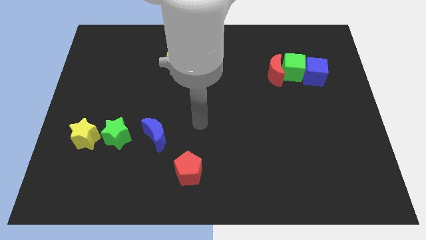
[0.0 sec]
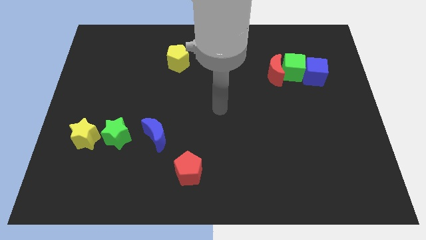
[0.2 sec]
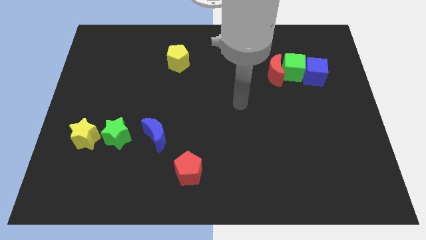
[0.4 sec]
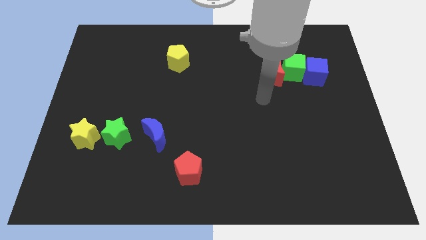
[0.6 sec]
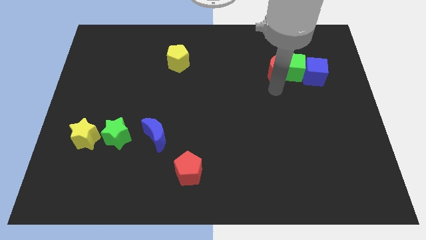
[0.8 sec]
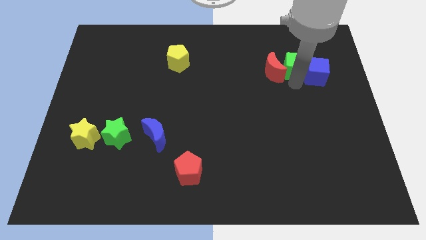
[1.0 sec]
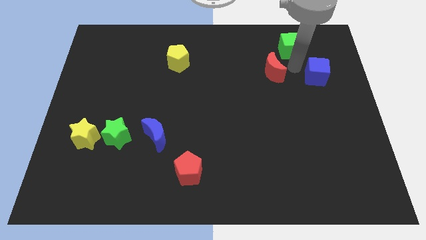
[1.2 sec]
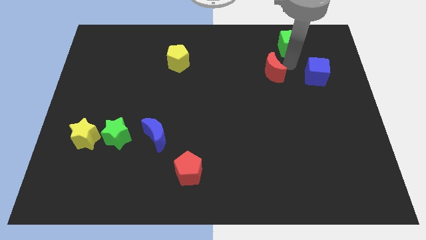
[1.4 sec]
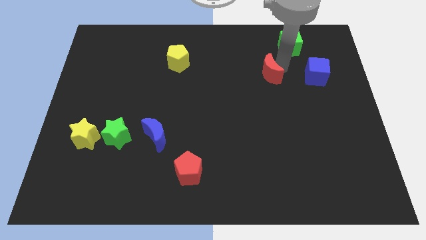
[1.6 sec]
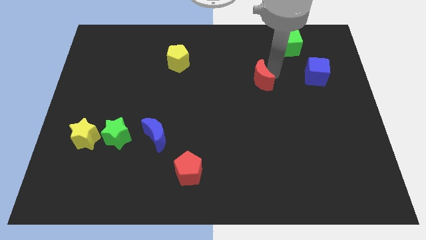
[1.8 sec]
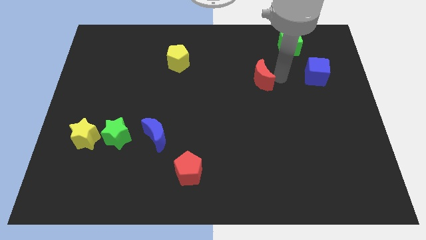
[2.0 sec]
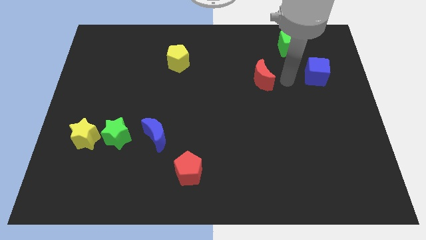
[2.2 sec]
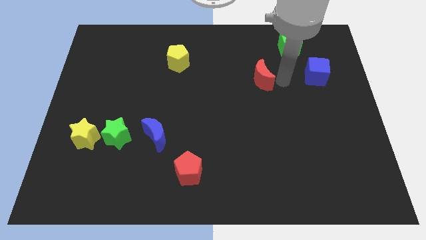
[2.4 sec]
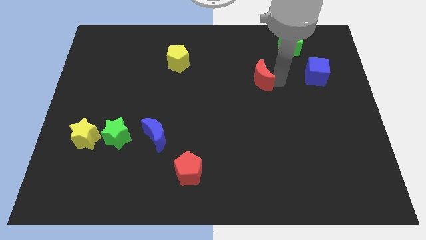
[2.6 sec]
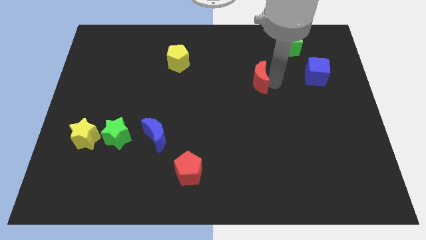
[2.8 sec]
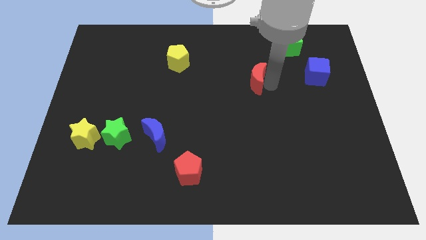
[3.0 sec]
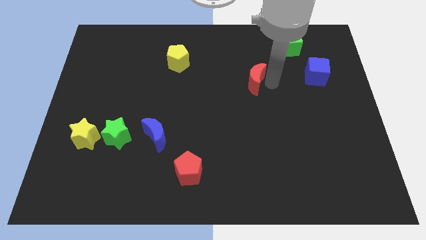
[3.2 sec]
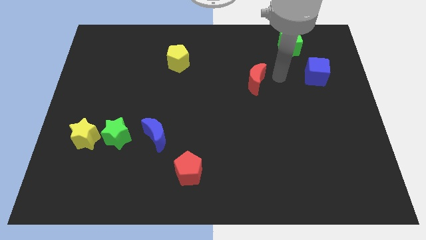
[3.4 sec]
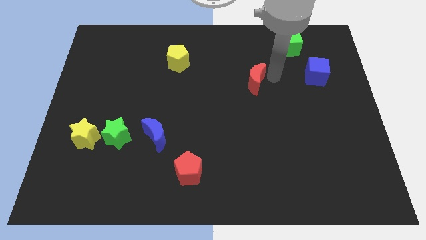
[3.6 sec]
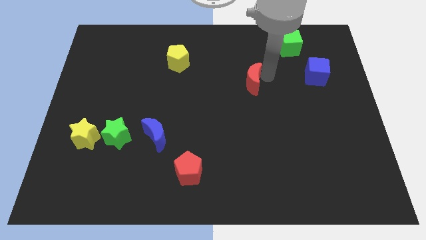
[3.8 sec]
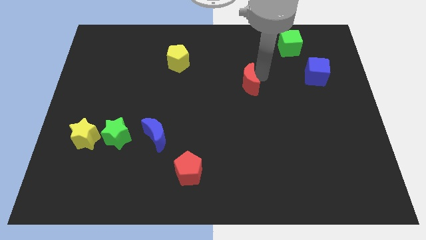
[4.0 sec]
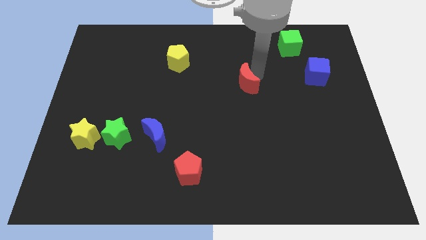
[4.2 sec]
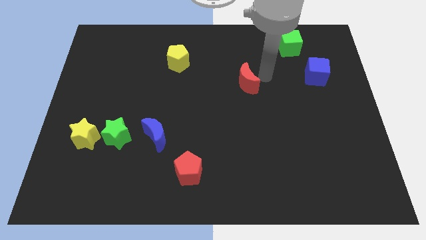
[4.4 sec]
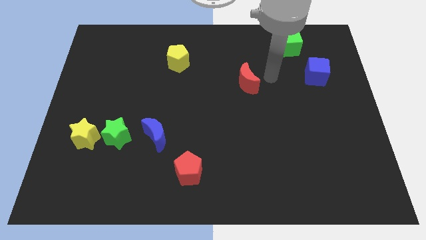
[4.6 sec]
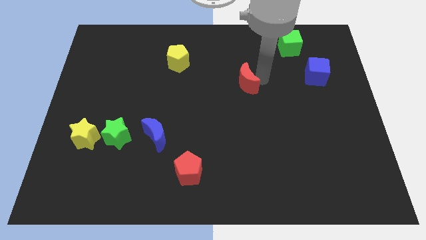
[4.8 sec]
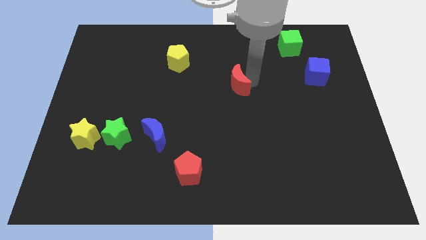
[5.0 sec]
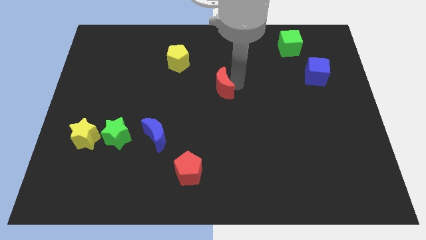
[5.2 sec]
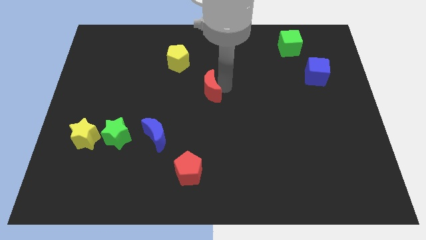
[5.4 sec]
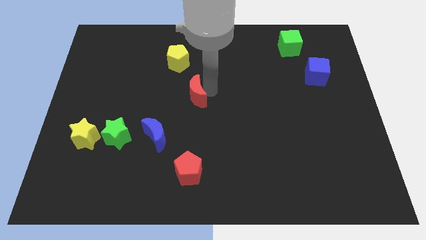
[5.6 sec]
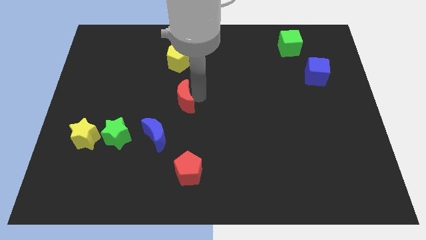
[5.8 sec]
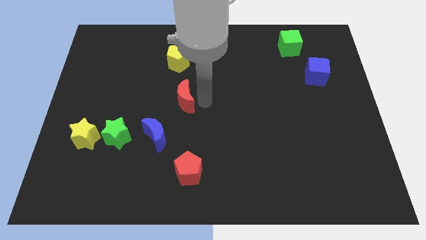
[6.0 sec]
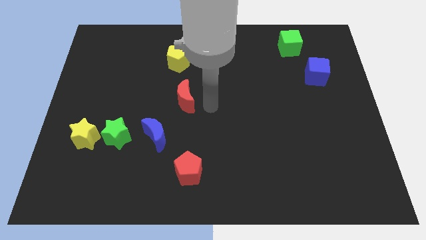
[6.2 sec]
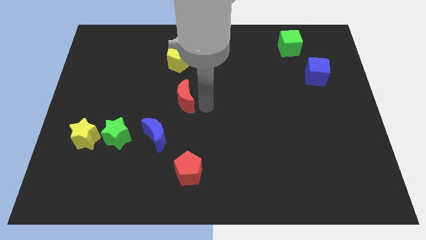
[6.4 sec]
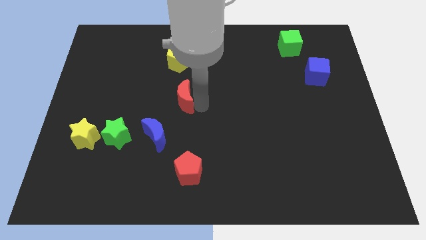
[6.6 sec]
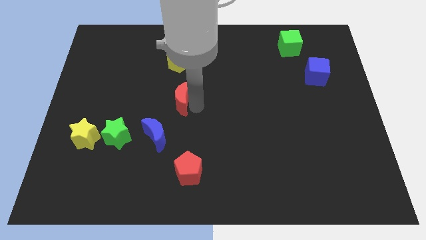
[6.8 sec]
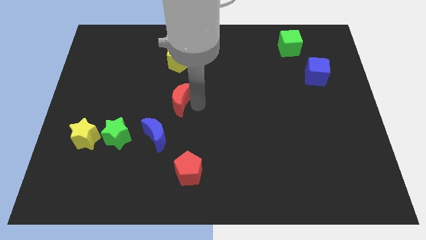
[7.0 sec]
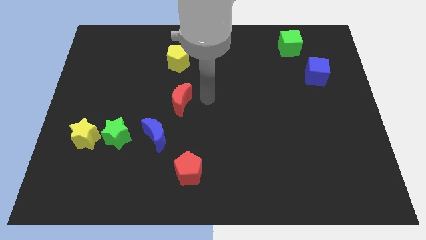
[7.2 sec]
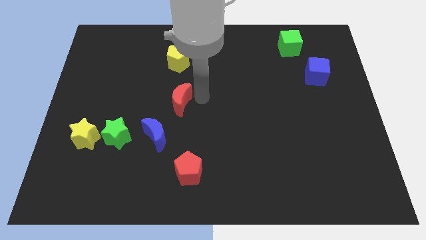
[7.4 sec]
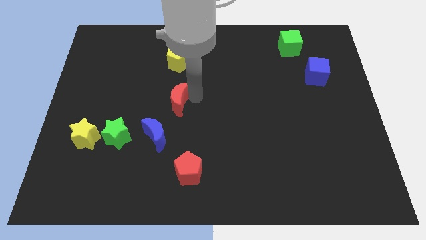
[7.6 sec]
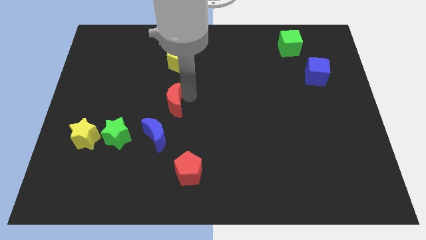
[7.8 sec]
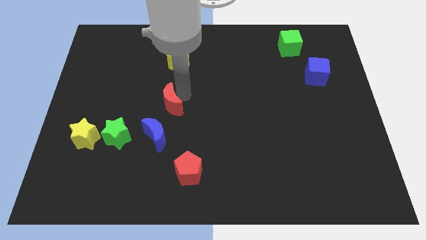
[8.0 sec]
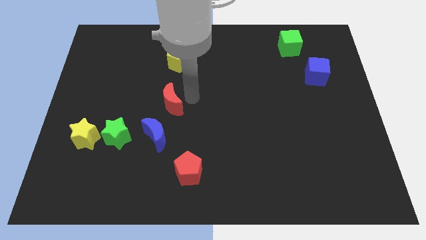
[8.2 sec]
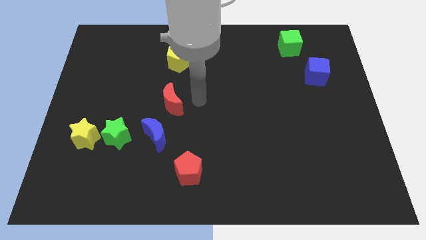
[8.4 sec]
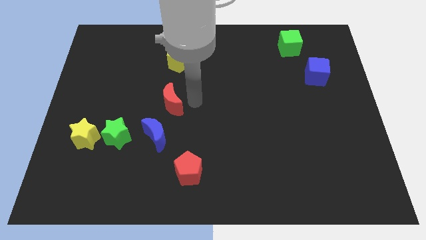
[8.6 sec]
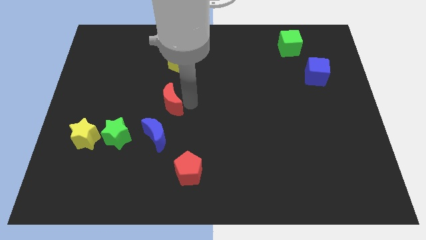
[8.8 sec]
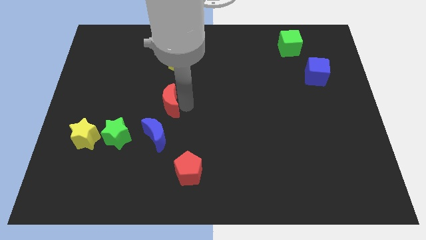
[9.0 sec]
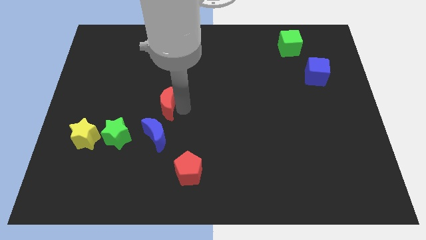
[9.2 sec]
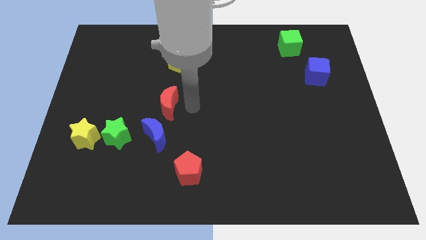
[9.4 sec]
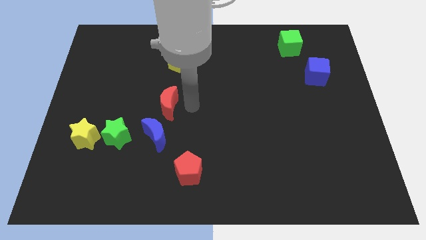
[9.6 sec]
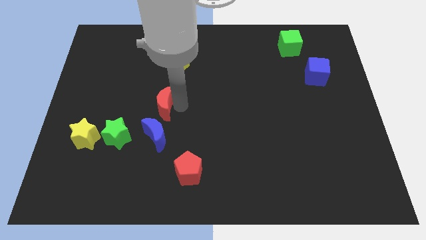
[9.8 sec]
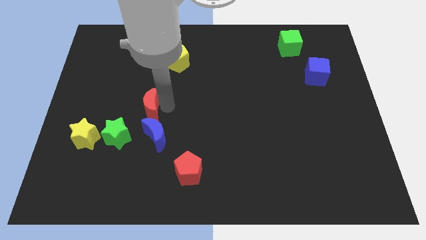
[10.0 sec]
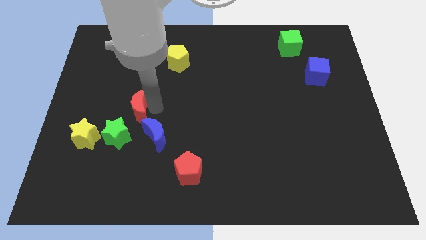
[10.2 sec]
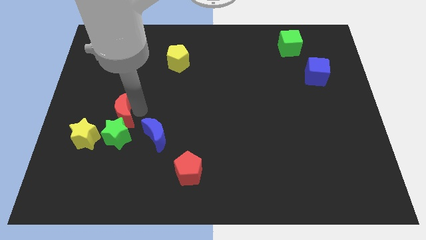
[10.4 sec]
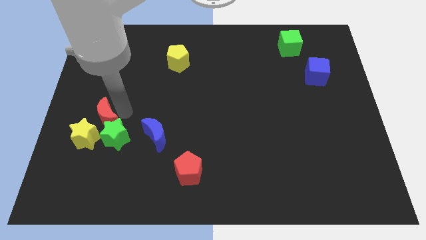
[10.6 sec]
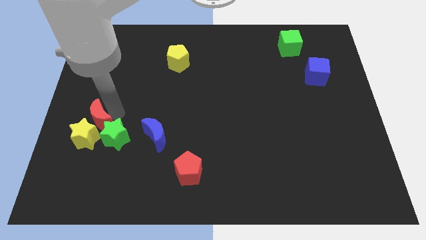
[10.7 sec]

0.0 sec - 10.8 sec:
move the red moon close to the yellow star

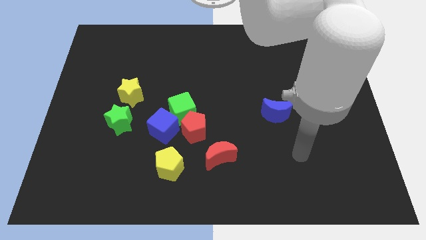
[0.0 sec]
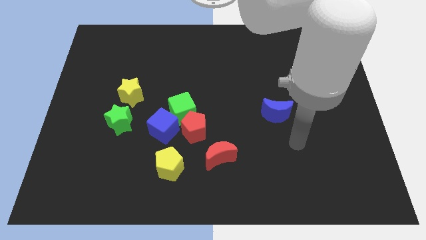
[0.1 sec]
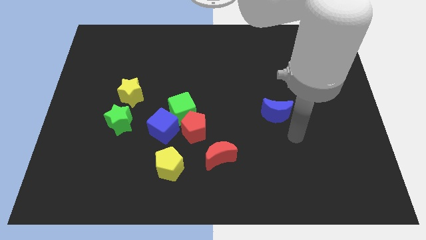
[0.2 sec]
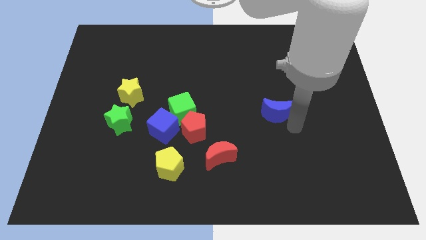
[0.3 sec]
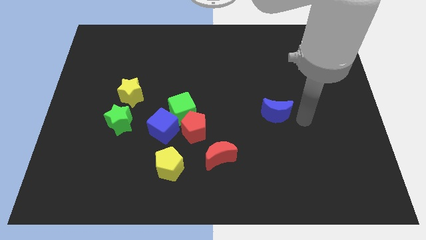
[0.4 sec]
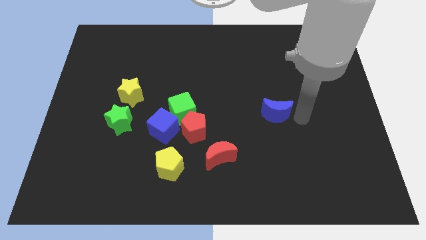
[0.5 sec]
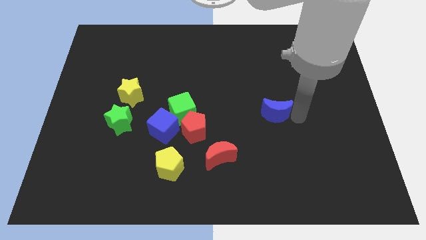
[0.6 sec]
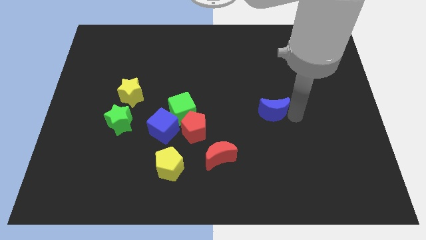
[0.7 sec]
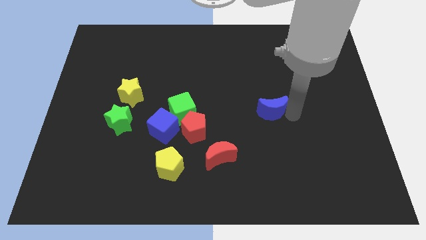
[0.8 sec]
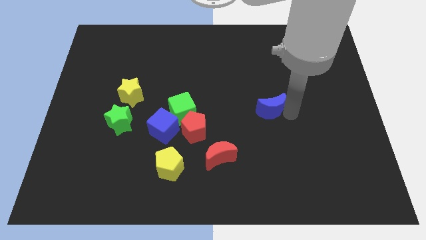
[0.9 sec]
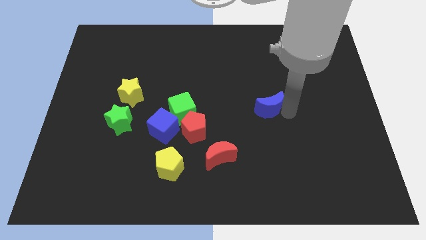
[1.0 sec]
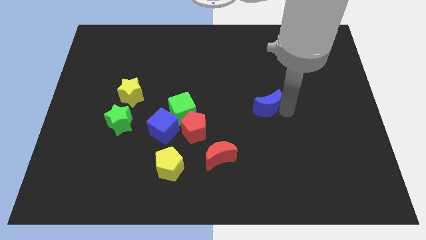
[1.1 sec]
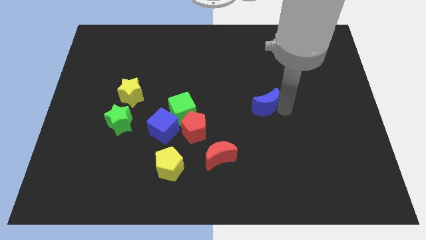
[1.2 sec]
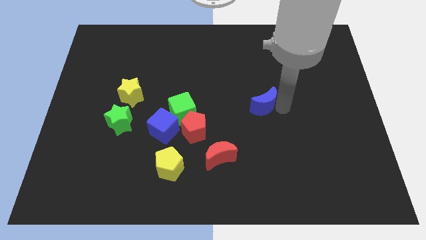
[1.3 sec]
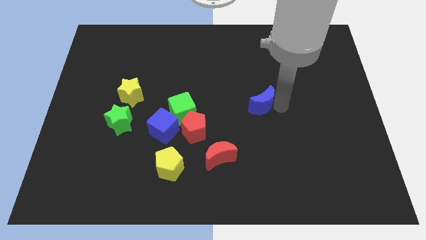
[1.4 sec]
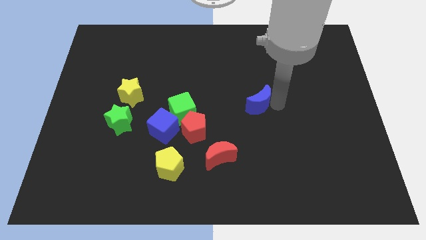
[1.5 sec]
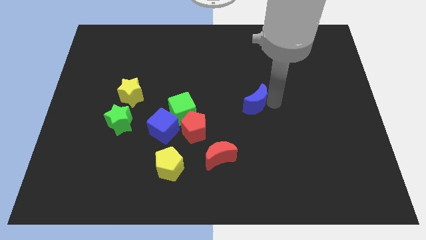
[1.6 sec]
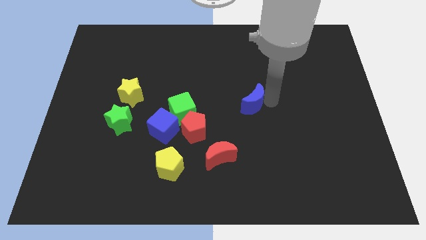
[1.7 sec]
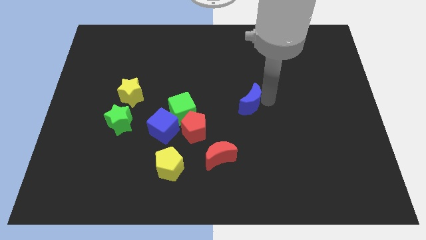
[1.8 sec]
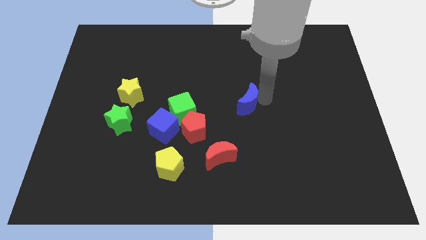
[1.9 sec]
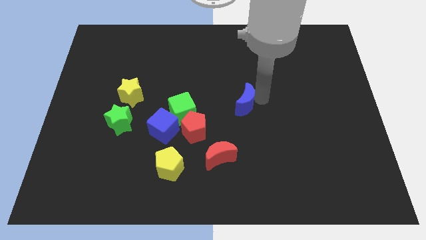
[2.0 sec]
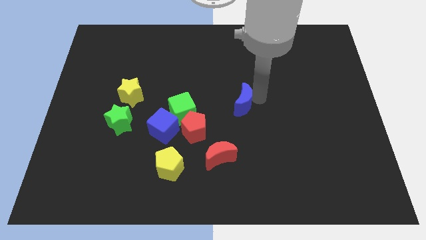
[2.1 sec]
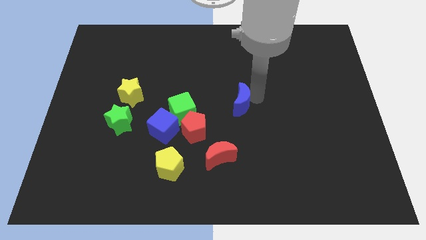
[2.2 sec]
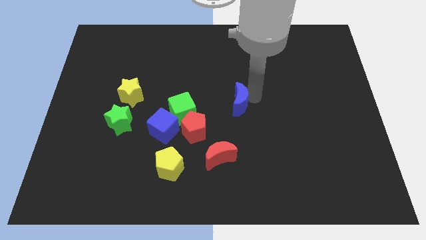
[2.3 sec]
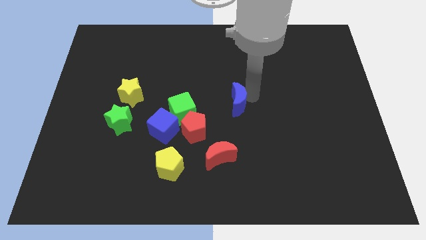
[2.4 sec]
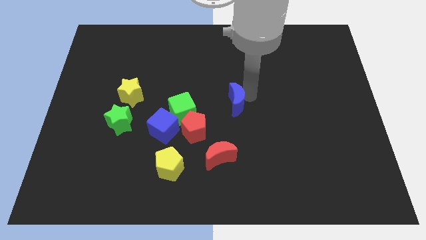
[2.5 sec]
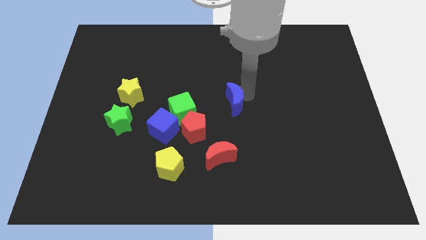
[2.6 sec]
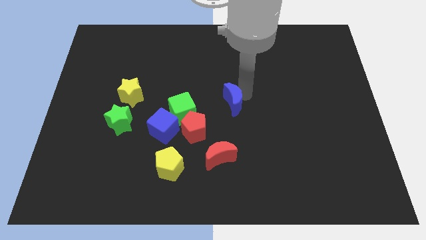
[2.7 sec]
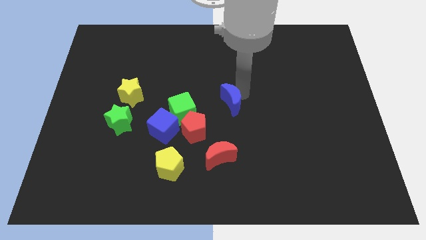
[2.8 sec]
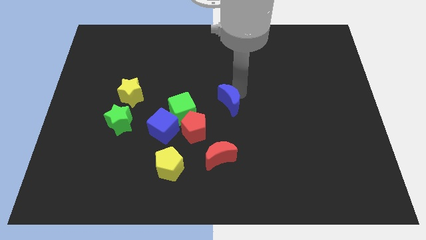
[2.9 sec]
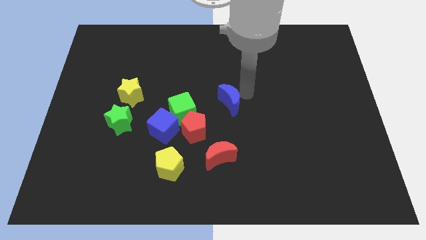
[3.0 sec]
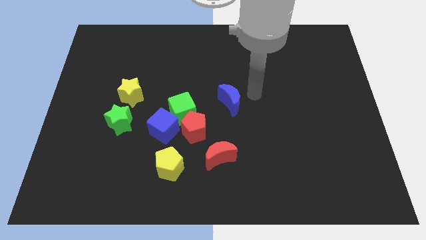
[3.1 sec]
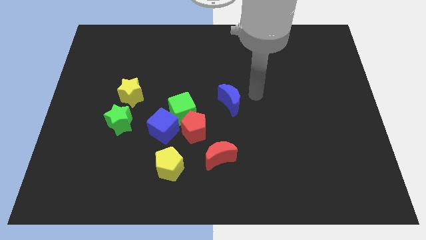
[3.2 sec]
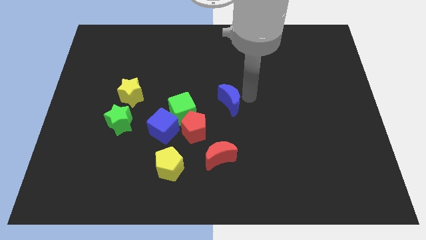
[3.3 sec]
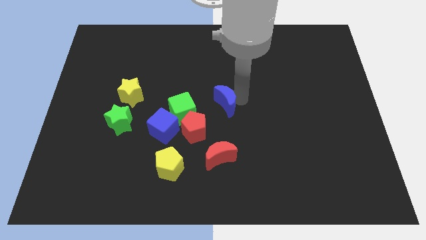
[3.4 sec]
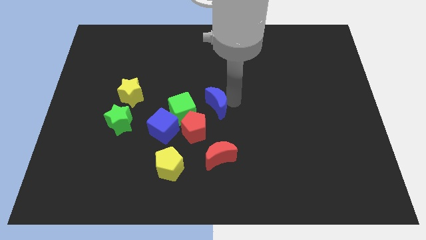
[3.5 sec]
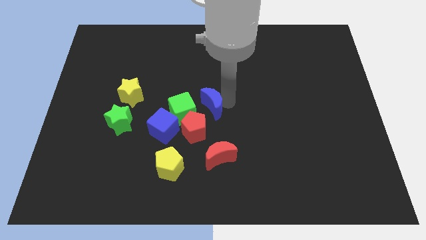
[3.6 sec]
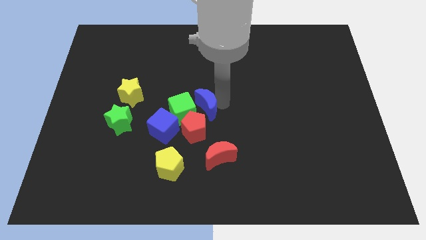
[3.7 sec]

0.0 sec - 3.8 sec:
put the blue moon to the green cube
